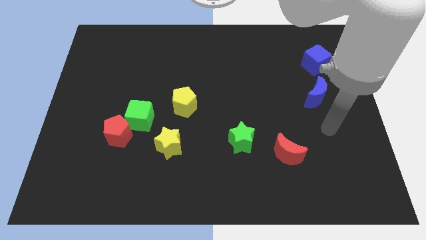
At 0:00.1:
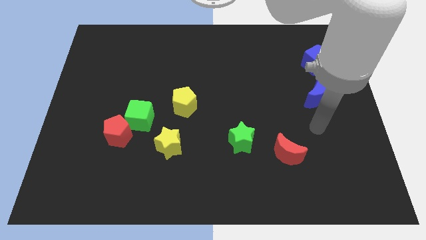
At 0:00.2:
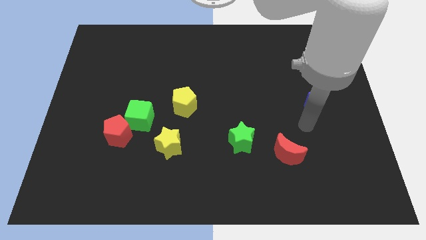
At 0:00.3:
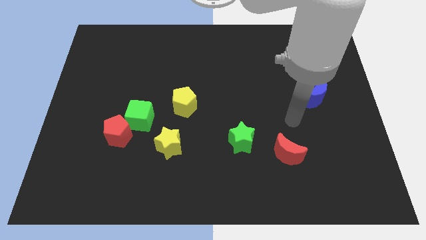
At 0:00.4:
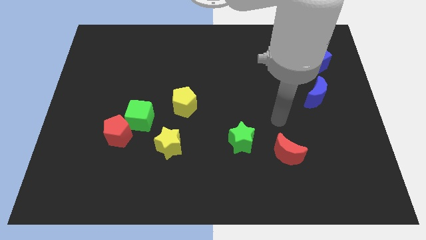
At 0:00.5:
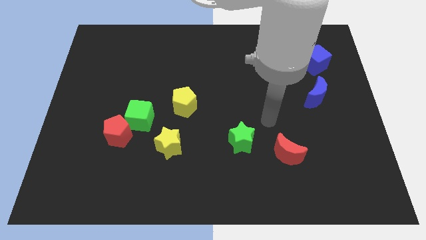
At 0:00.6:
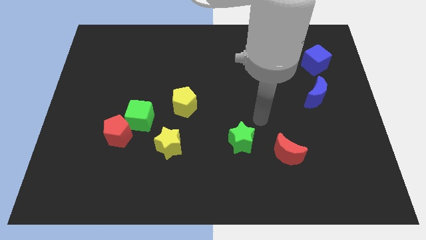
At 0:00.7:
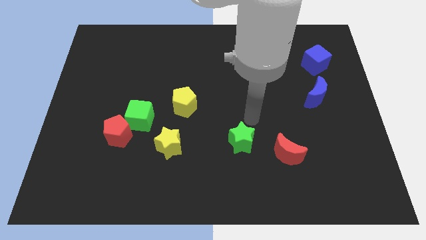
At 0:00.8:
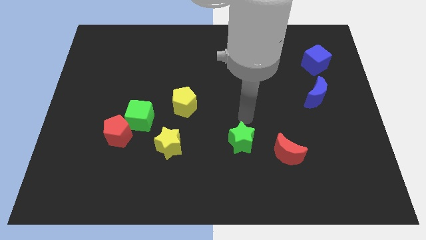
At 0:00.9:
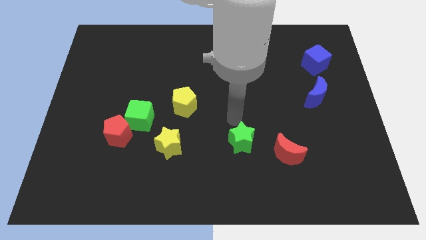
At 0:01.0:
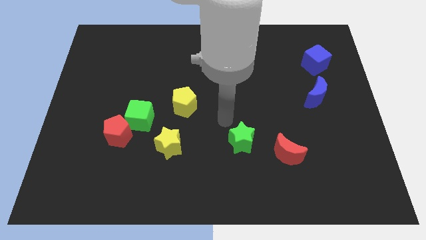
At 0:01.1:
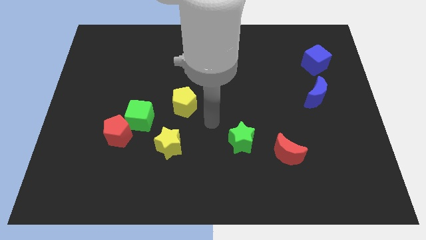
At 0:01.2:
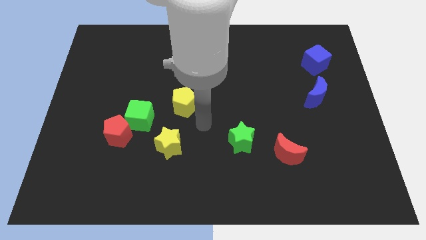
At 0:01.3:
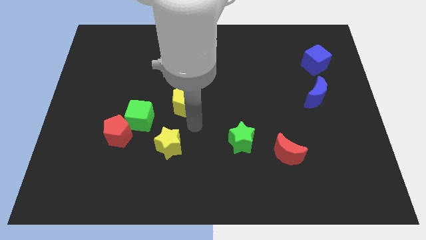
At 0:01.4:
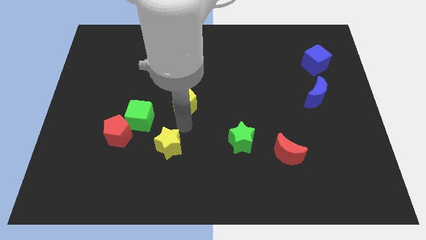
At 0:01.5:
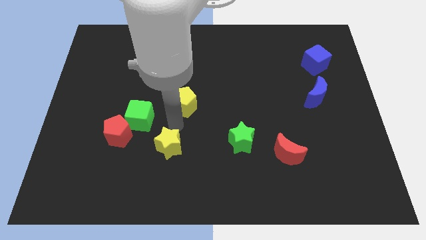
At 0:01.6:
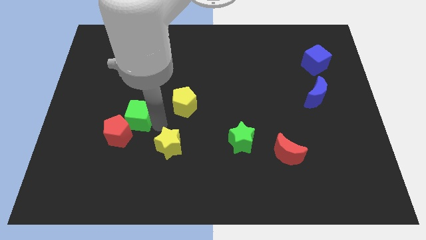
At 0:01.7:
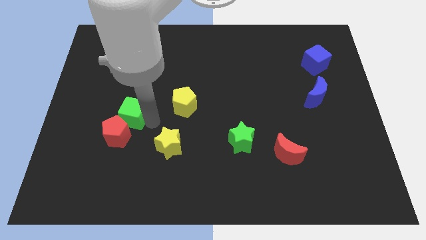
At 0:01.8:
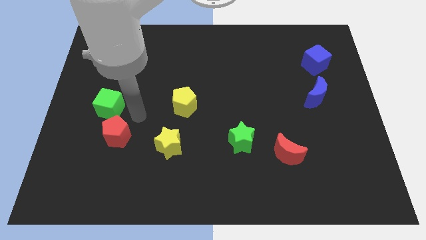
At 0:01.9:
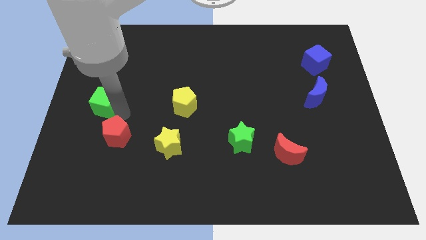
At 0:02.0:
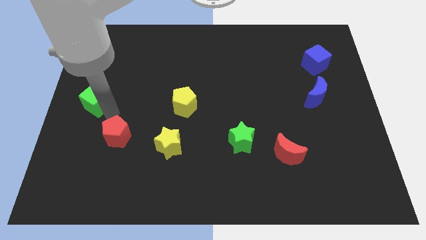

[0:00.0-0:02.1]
move the red pentagon away from the green cube

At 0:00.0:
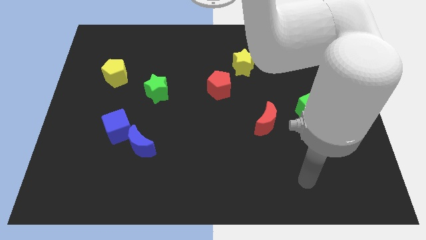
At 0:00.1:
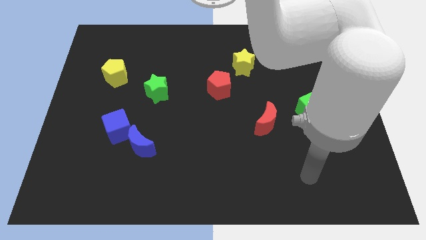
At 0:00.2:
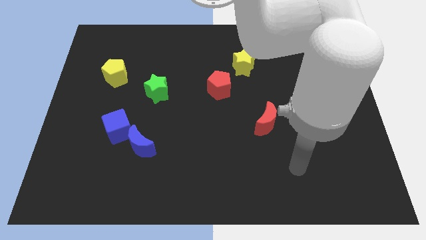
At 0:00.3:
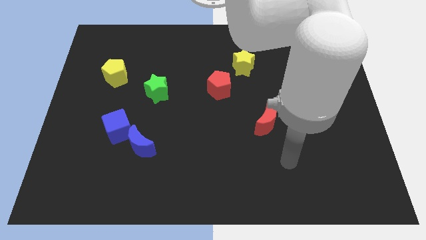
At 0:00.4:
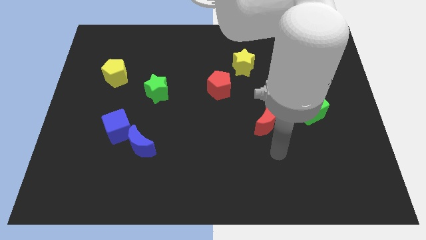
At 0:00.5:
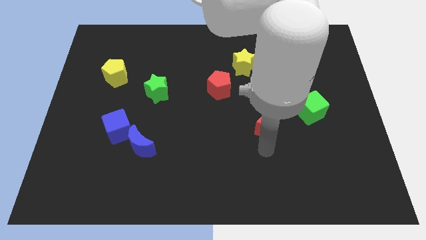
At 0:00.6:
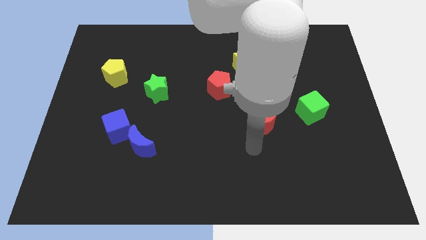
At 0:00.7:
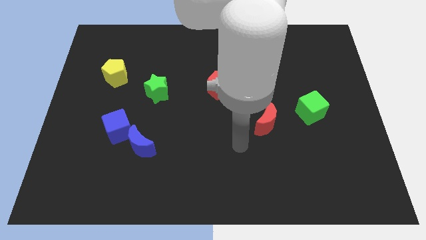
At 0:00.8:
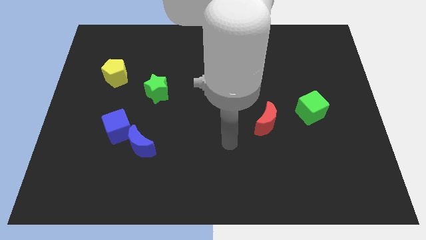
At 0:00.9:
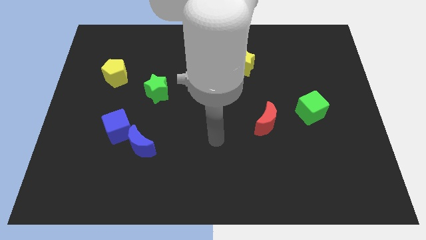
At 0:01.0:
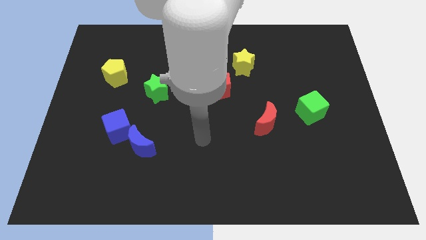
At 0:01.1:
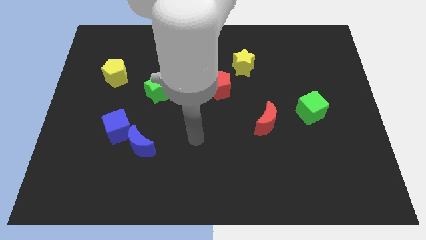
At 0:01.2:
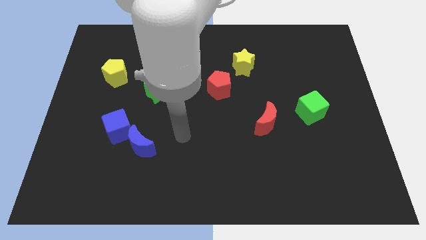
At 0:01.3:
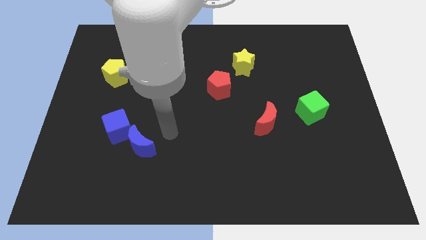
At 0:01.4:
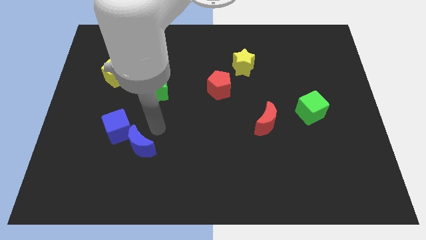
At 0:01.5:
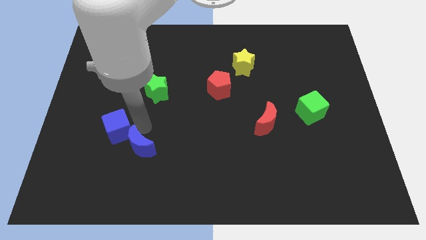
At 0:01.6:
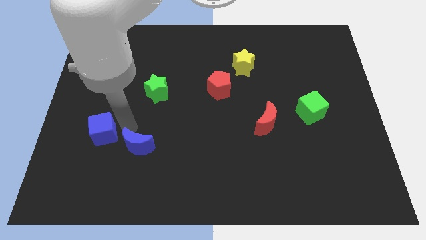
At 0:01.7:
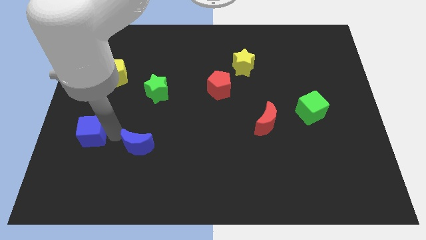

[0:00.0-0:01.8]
pull the blue moon apart from the blue cube

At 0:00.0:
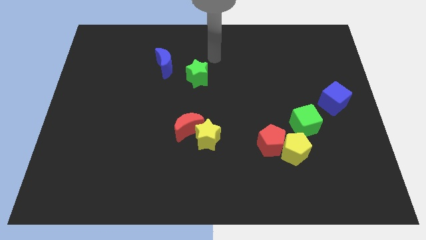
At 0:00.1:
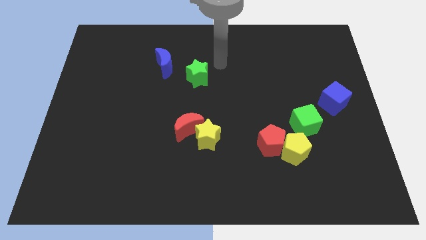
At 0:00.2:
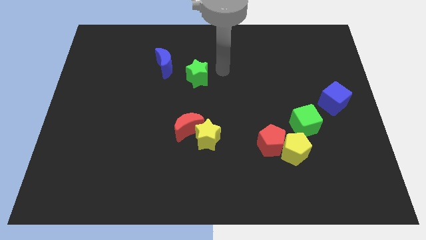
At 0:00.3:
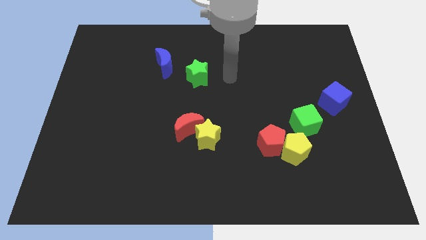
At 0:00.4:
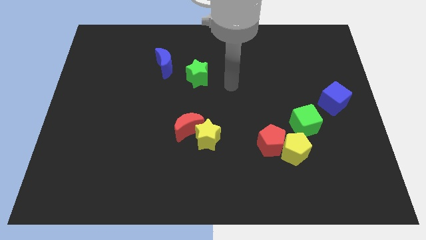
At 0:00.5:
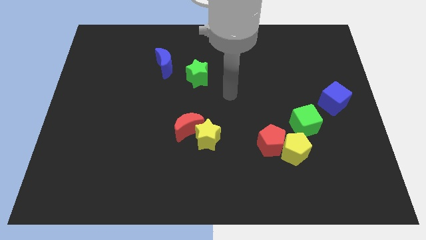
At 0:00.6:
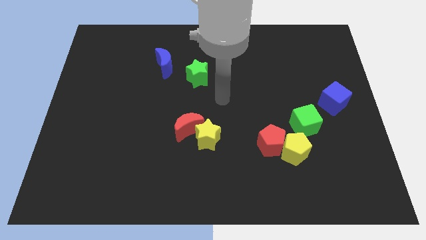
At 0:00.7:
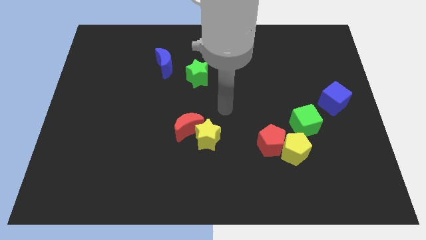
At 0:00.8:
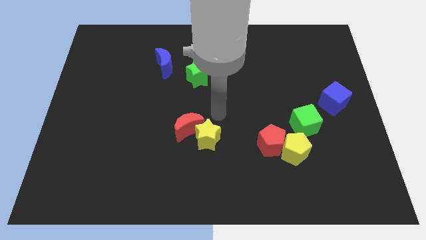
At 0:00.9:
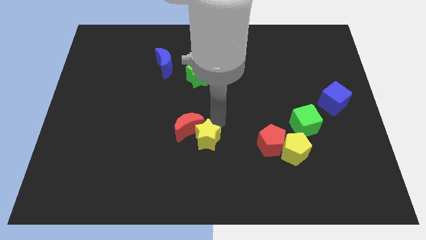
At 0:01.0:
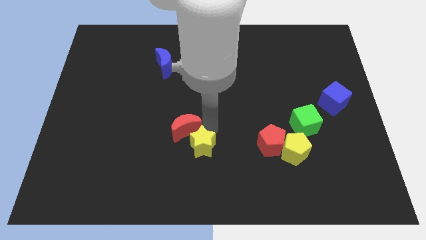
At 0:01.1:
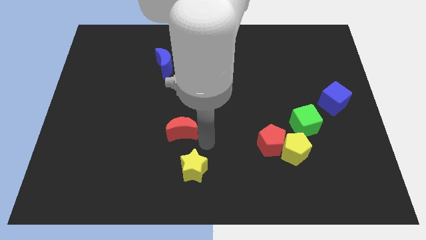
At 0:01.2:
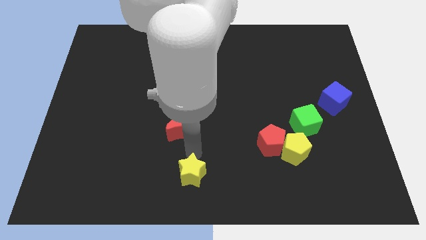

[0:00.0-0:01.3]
separate the red moon from the yellow star

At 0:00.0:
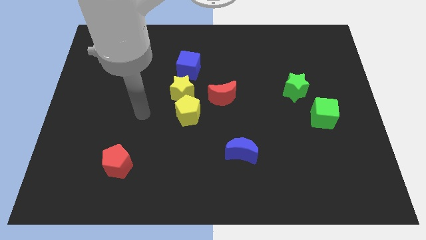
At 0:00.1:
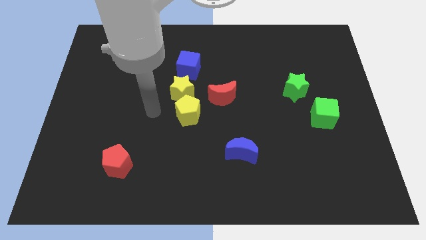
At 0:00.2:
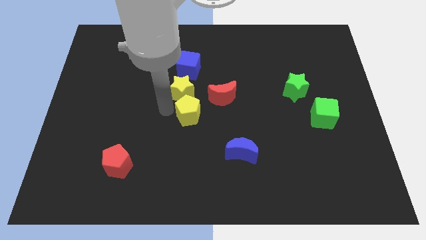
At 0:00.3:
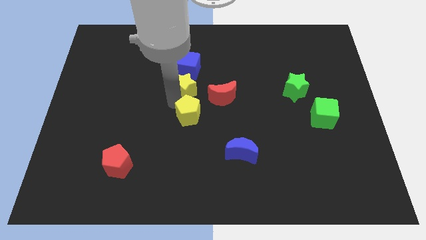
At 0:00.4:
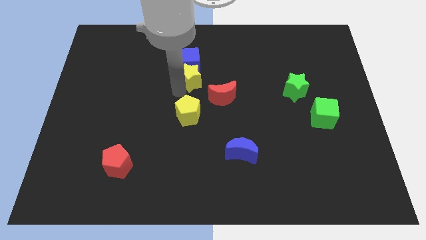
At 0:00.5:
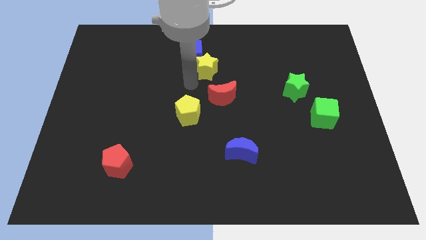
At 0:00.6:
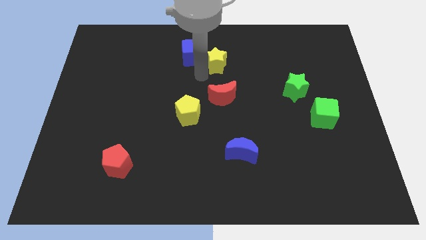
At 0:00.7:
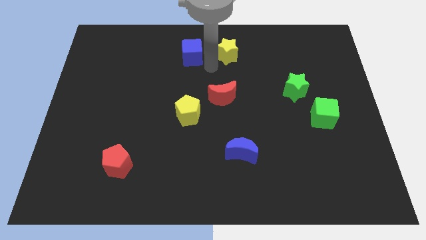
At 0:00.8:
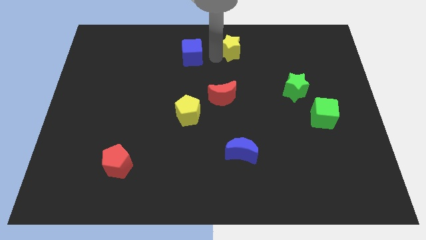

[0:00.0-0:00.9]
separate the blue cube from the yellow star

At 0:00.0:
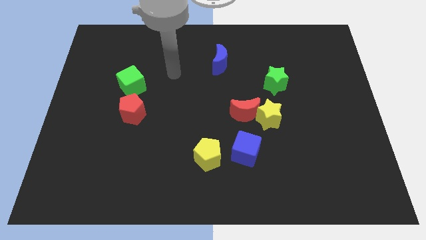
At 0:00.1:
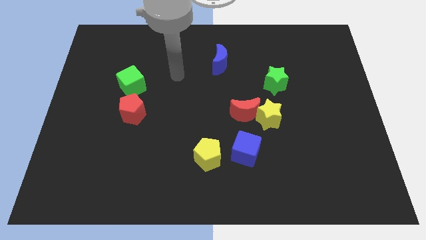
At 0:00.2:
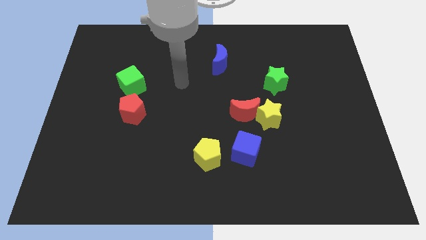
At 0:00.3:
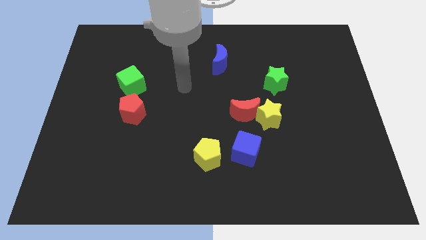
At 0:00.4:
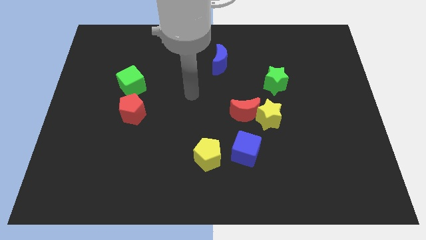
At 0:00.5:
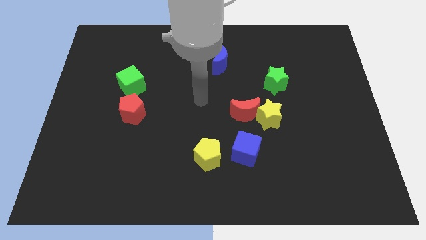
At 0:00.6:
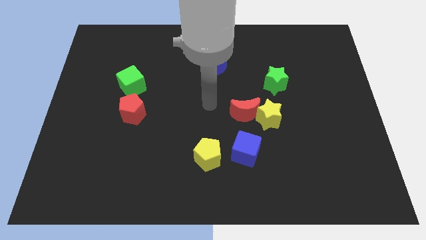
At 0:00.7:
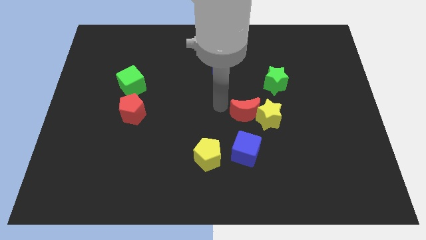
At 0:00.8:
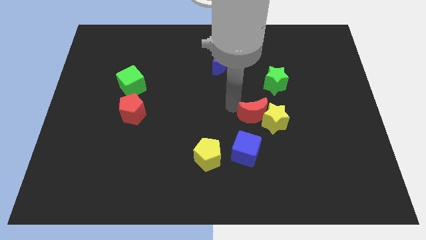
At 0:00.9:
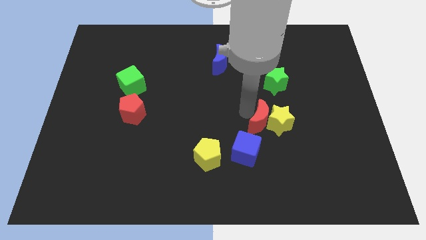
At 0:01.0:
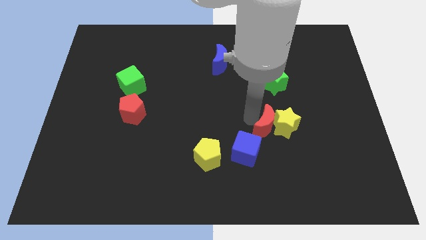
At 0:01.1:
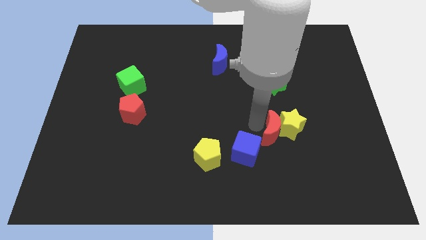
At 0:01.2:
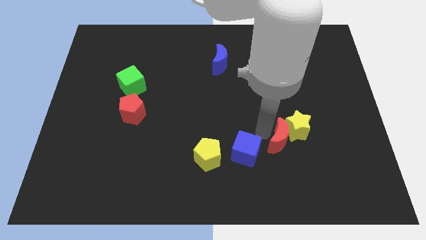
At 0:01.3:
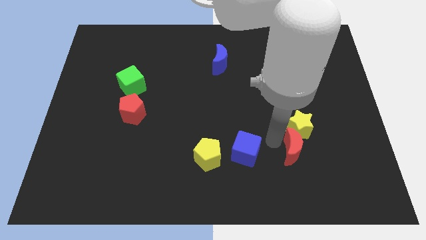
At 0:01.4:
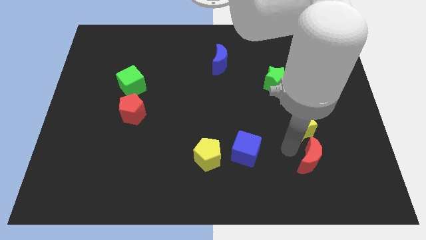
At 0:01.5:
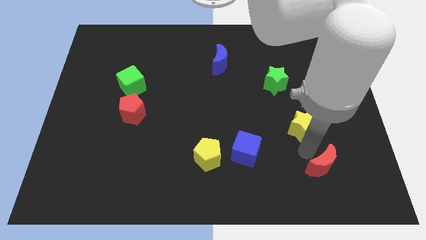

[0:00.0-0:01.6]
pull the yellow star apart from the red moon

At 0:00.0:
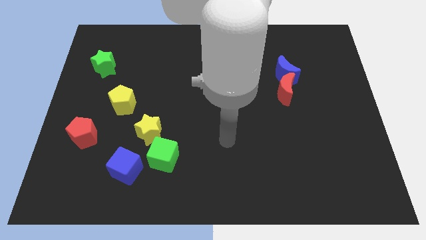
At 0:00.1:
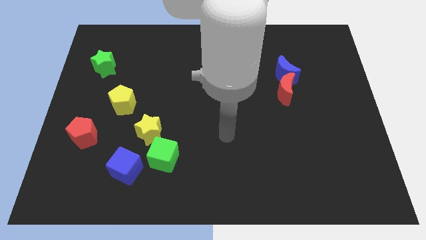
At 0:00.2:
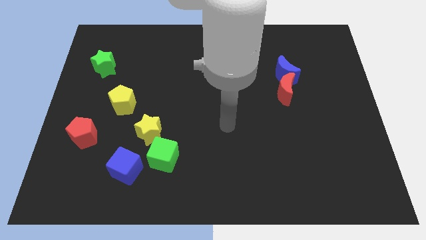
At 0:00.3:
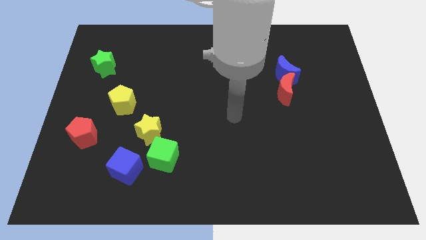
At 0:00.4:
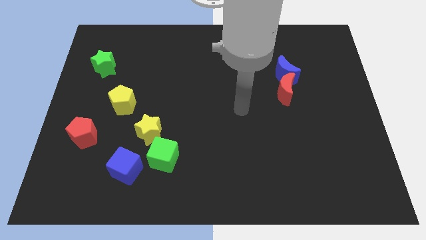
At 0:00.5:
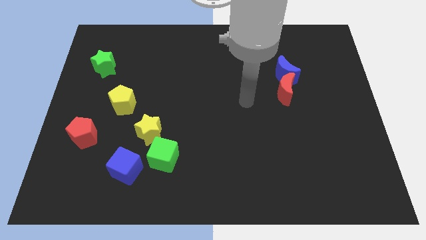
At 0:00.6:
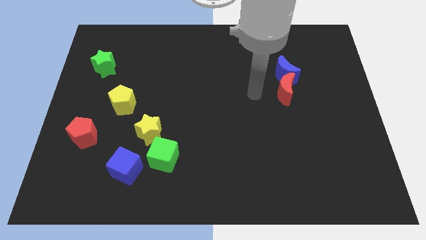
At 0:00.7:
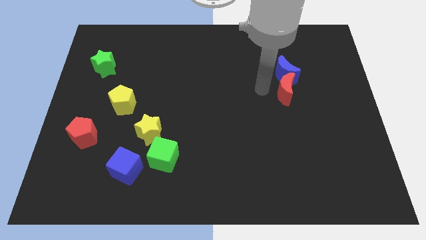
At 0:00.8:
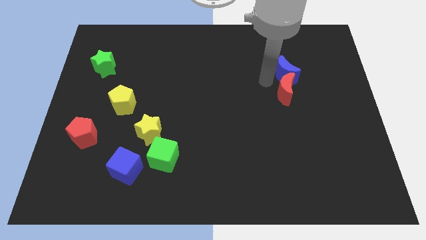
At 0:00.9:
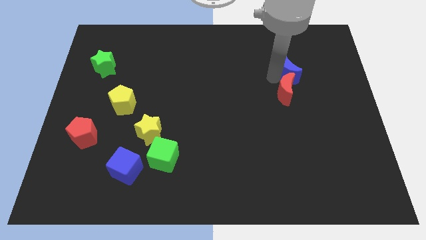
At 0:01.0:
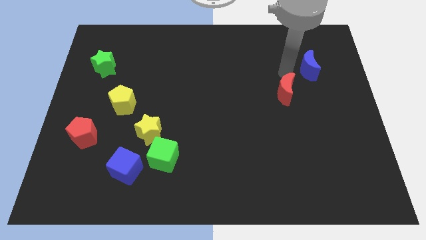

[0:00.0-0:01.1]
separate the red moon from the blue moon

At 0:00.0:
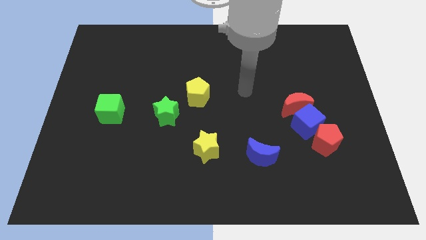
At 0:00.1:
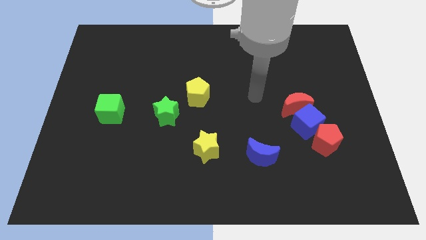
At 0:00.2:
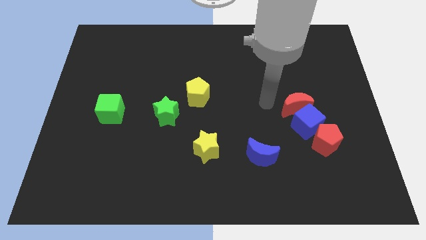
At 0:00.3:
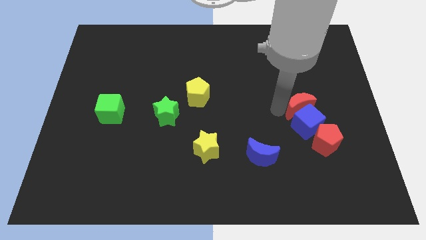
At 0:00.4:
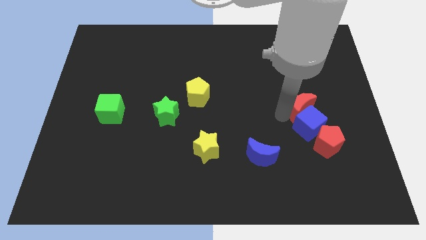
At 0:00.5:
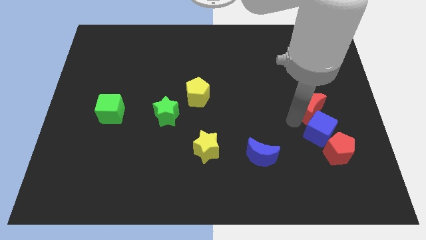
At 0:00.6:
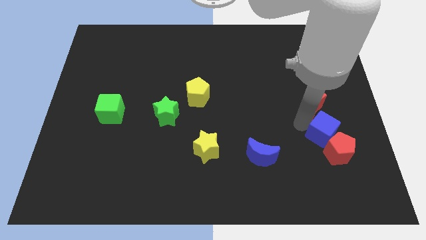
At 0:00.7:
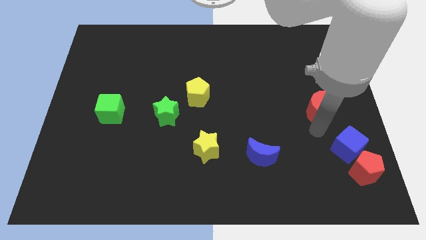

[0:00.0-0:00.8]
move the red moon away from the blue cube
